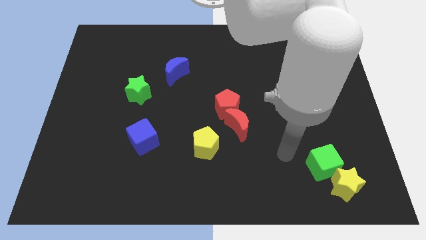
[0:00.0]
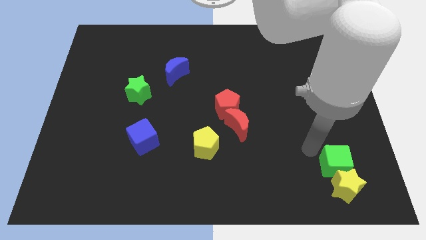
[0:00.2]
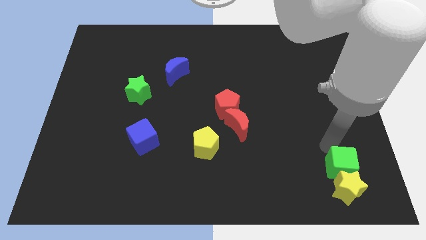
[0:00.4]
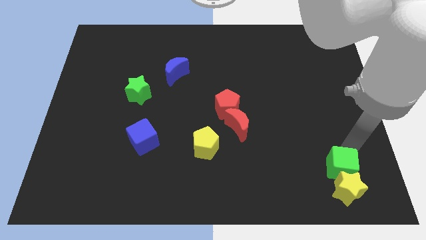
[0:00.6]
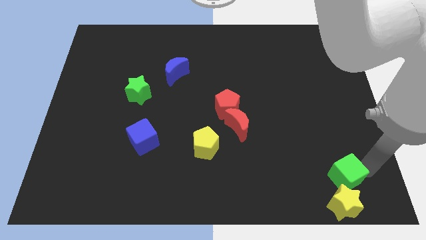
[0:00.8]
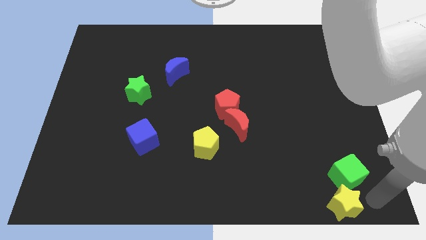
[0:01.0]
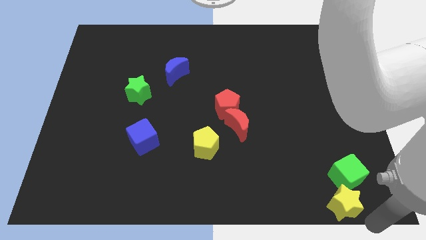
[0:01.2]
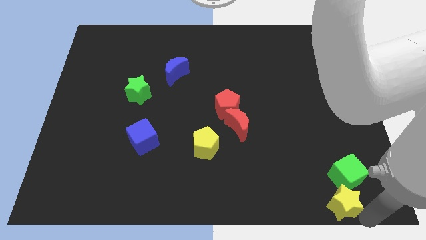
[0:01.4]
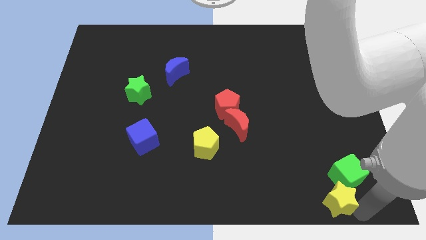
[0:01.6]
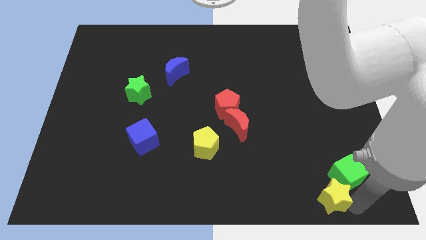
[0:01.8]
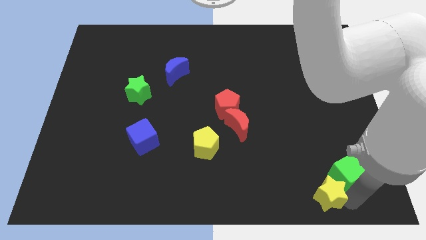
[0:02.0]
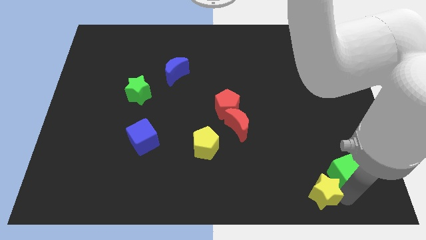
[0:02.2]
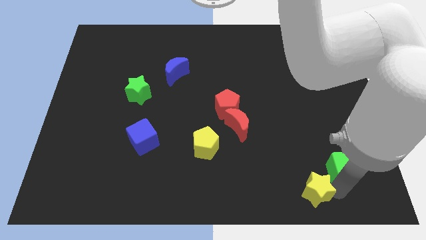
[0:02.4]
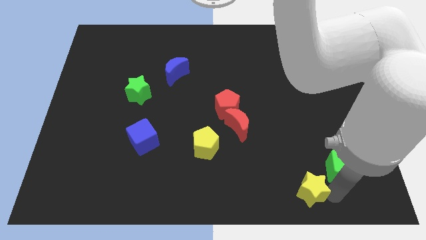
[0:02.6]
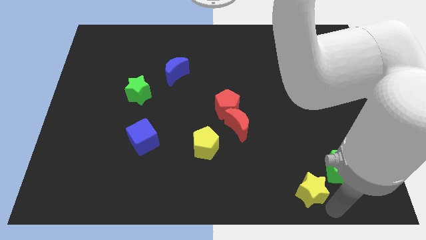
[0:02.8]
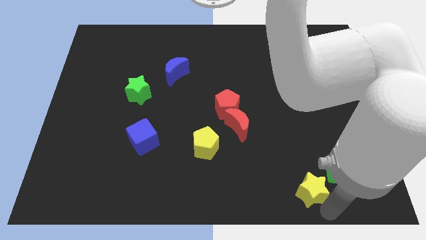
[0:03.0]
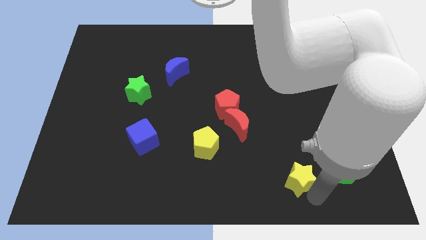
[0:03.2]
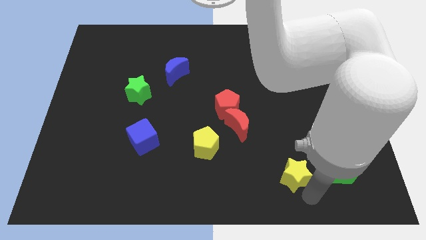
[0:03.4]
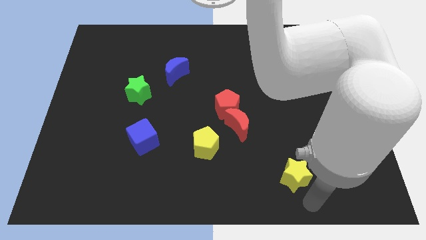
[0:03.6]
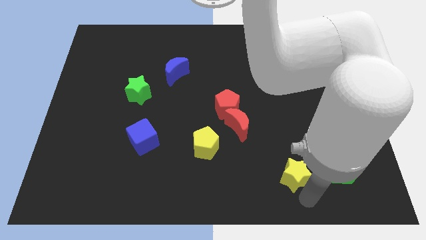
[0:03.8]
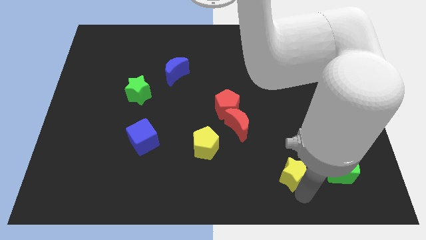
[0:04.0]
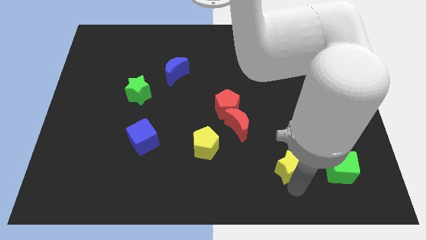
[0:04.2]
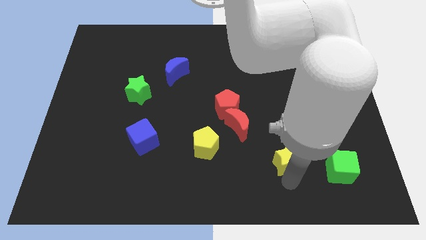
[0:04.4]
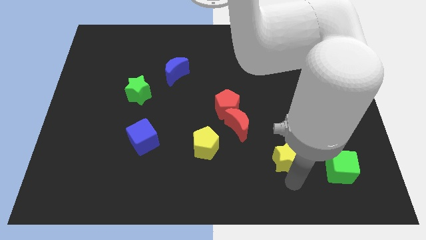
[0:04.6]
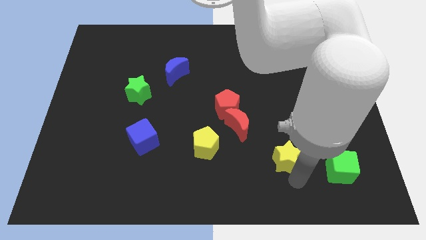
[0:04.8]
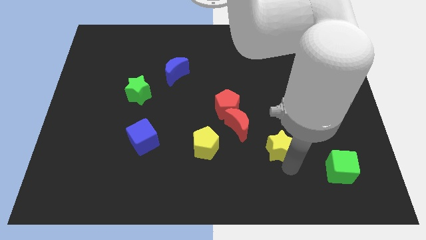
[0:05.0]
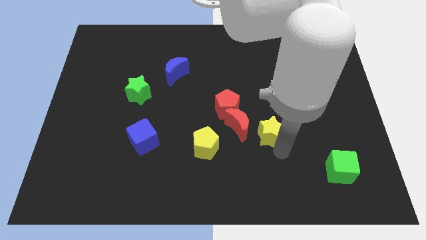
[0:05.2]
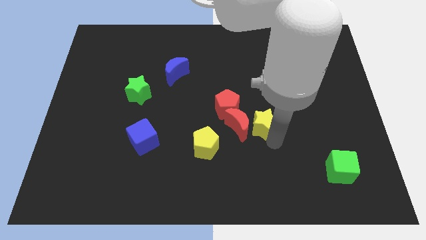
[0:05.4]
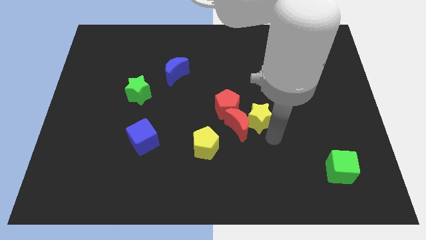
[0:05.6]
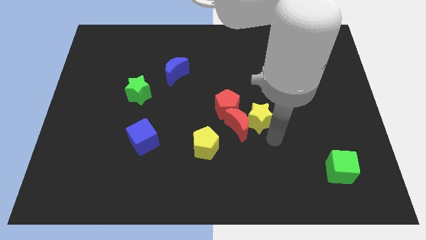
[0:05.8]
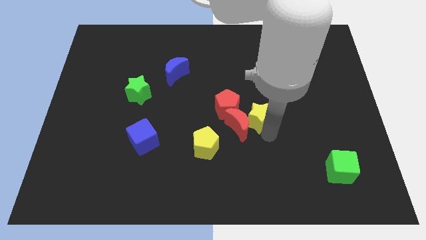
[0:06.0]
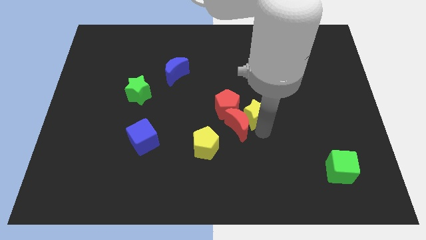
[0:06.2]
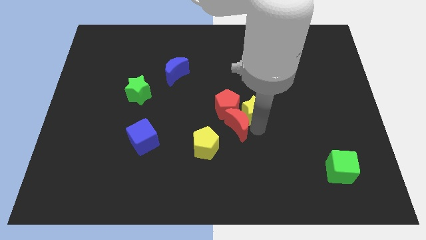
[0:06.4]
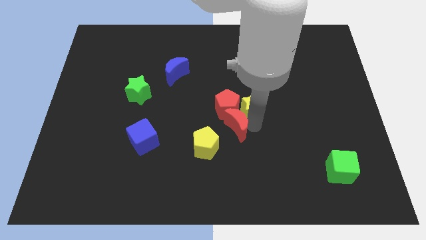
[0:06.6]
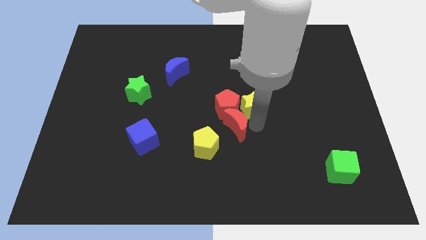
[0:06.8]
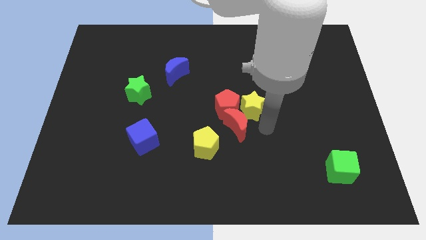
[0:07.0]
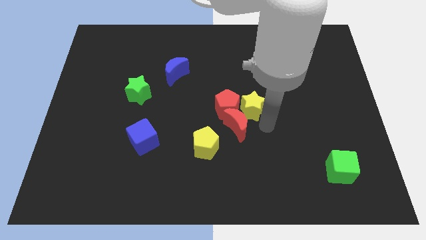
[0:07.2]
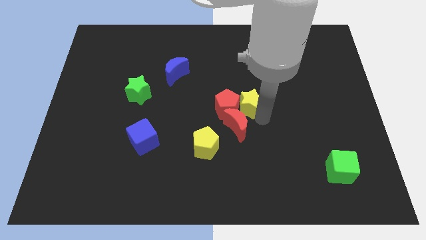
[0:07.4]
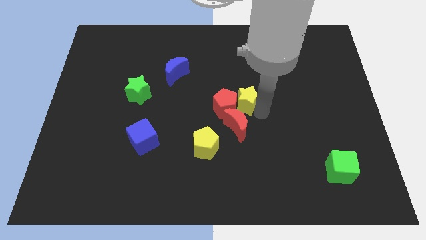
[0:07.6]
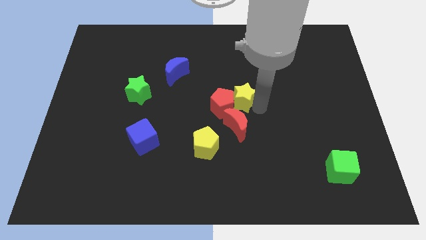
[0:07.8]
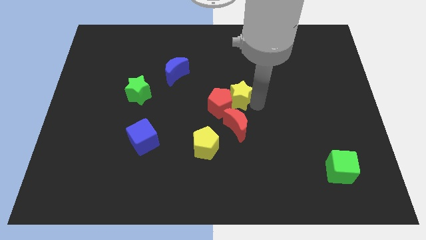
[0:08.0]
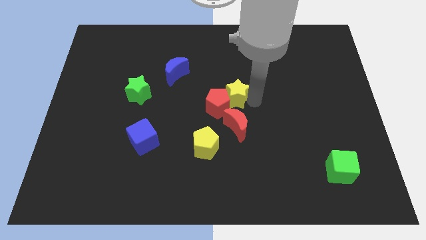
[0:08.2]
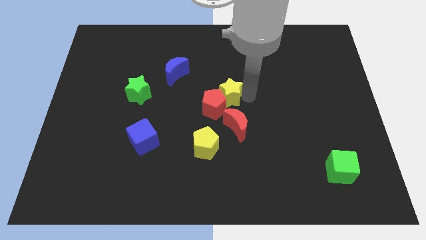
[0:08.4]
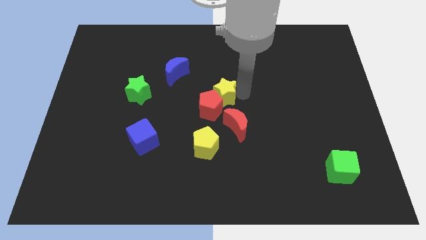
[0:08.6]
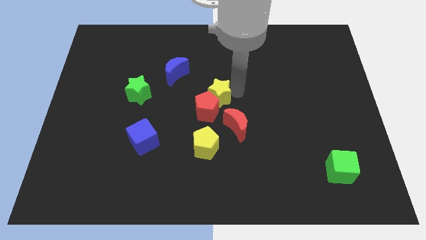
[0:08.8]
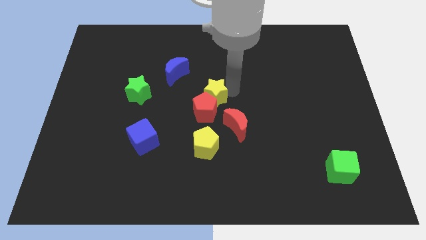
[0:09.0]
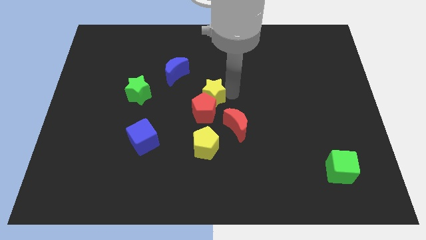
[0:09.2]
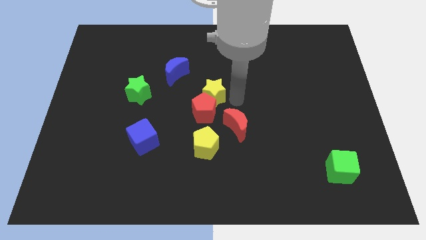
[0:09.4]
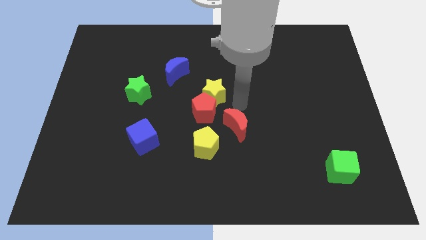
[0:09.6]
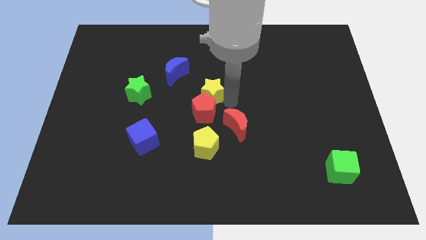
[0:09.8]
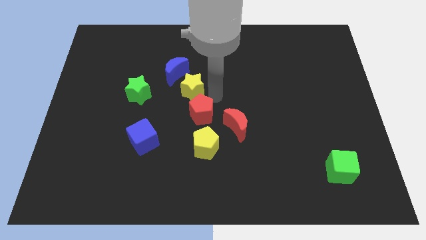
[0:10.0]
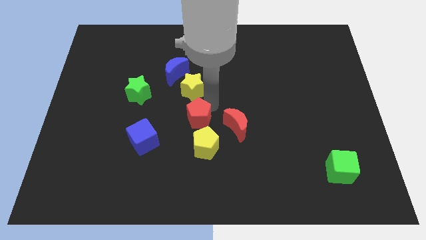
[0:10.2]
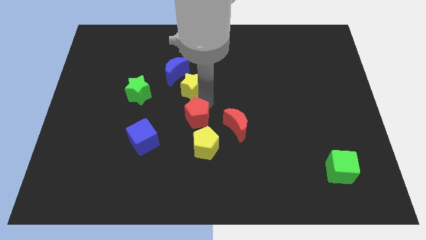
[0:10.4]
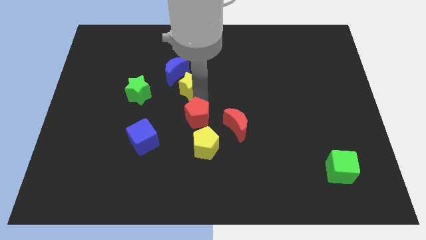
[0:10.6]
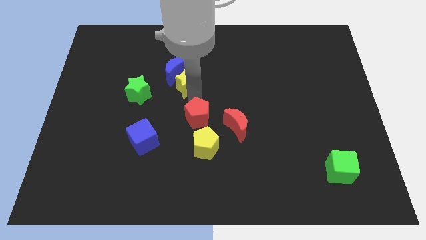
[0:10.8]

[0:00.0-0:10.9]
move the yellow star next to the blue moon

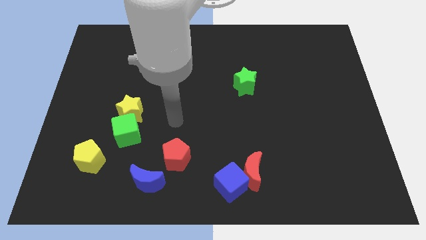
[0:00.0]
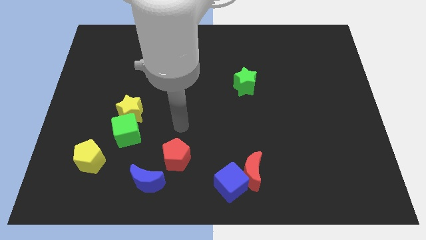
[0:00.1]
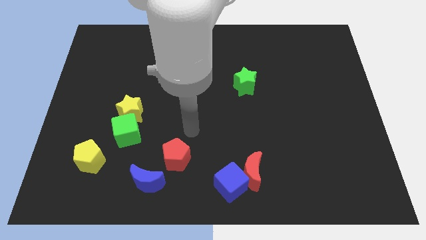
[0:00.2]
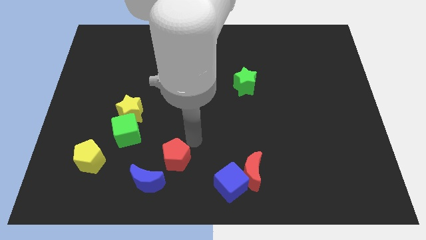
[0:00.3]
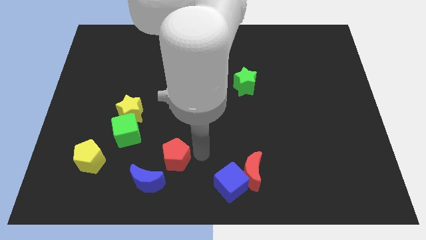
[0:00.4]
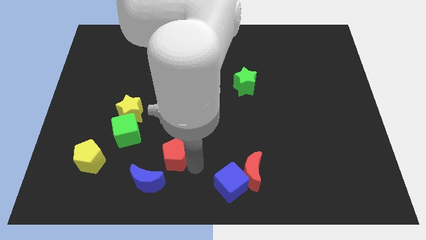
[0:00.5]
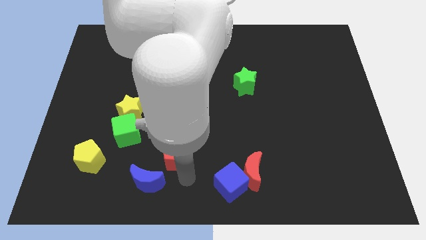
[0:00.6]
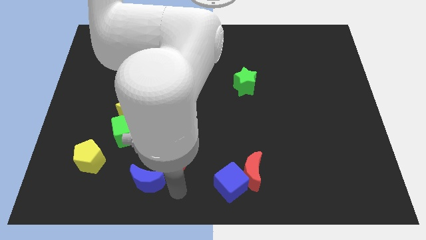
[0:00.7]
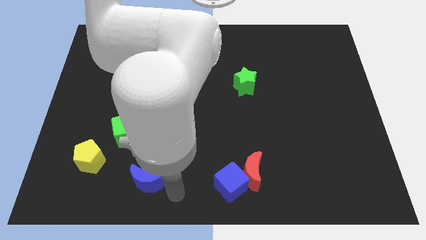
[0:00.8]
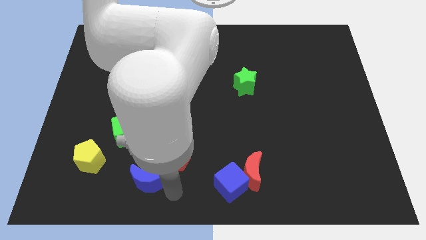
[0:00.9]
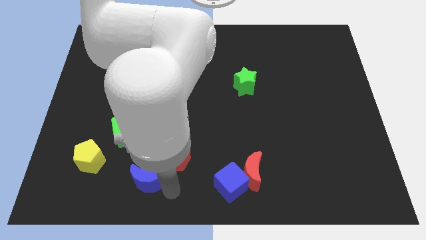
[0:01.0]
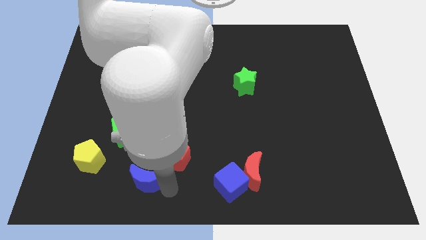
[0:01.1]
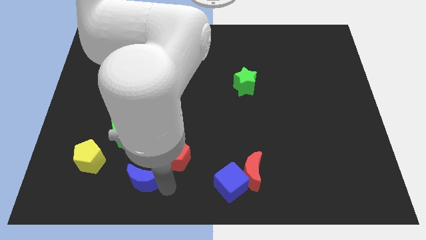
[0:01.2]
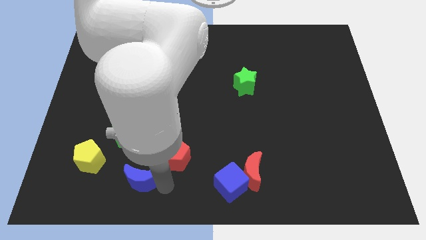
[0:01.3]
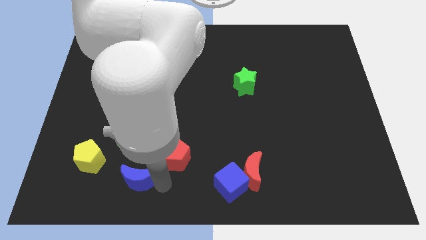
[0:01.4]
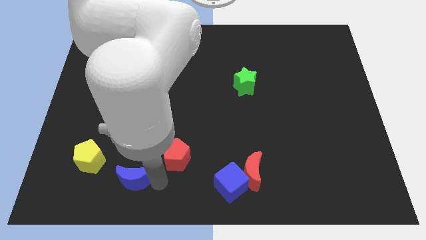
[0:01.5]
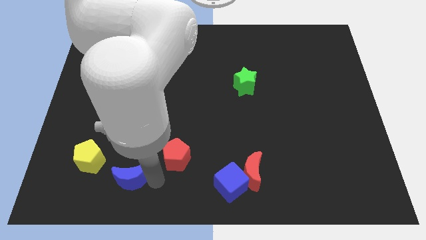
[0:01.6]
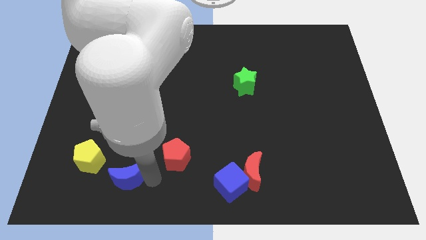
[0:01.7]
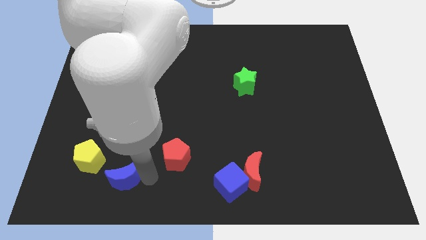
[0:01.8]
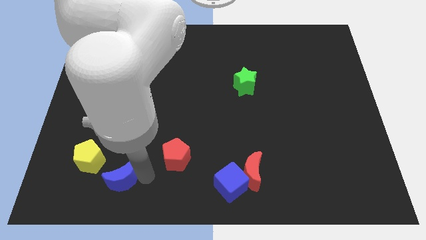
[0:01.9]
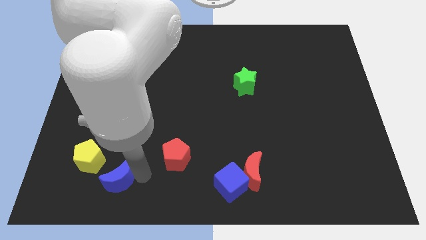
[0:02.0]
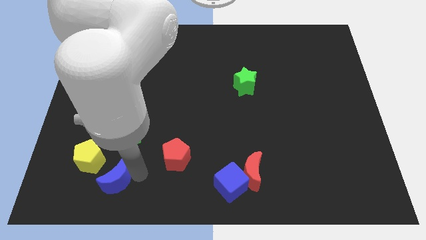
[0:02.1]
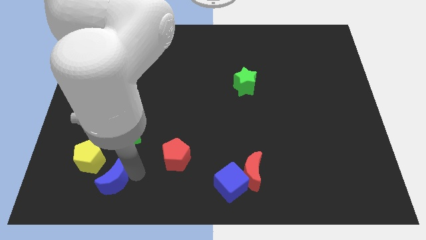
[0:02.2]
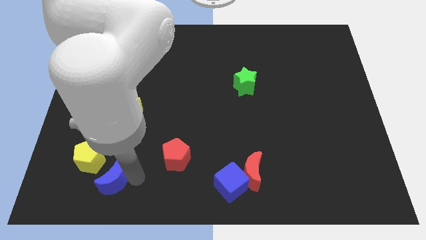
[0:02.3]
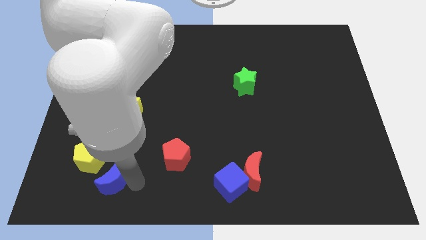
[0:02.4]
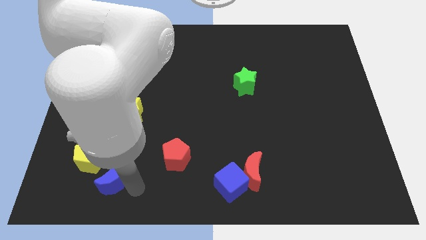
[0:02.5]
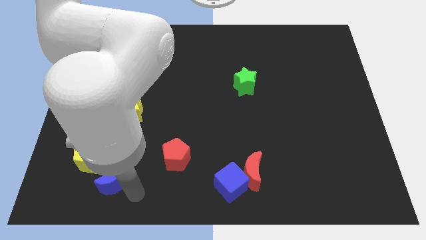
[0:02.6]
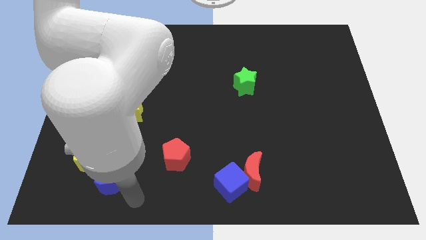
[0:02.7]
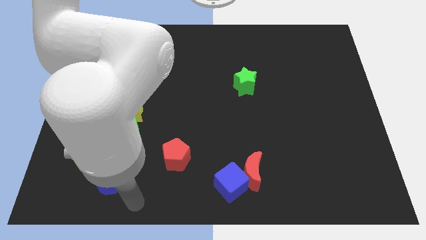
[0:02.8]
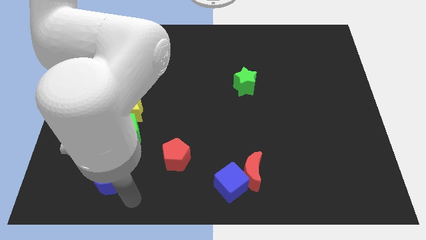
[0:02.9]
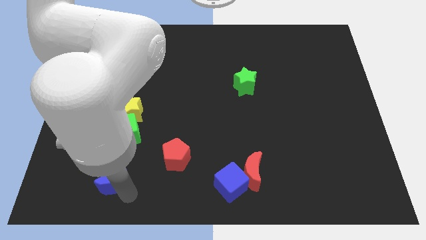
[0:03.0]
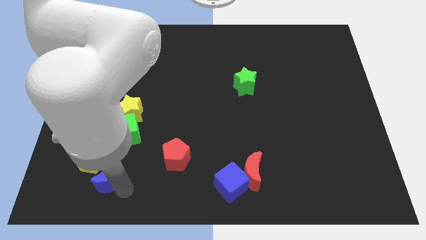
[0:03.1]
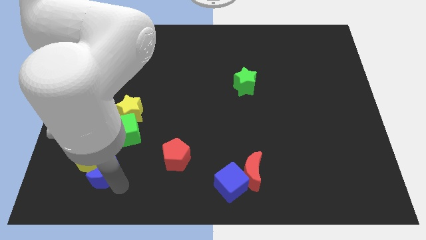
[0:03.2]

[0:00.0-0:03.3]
move the blue moon next to the yellow pentagon
